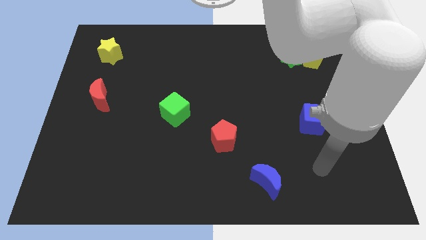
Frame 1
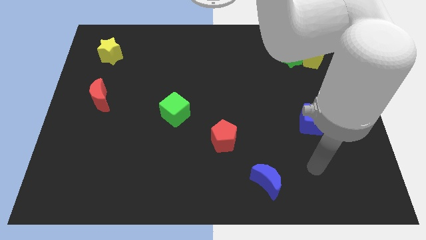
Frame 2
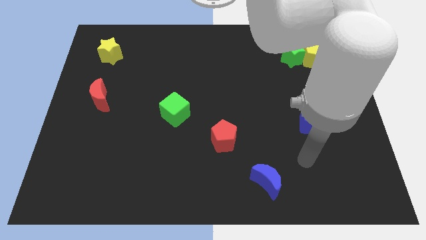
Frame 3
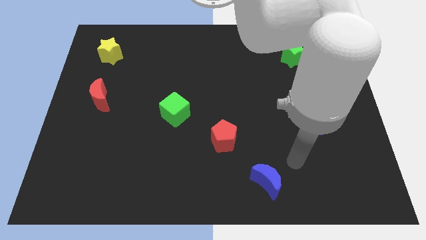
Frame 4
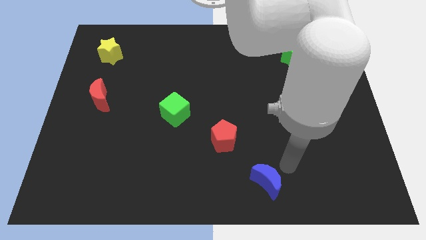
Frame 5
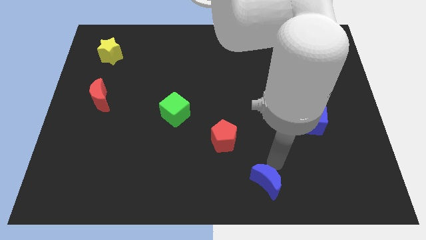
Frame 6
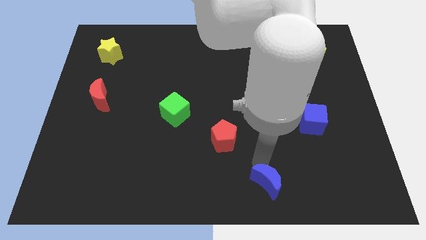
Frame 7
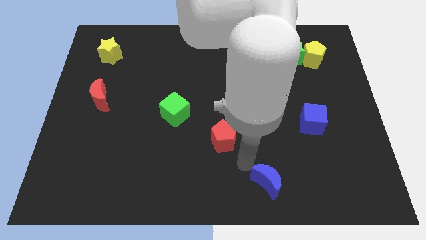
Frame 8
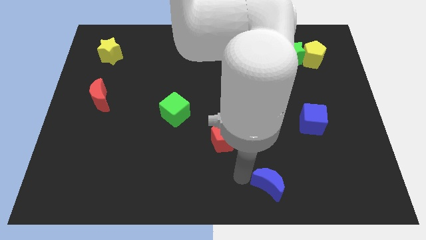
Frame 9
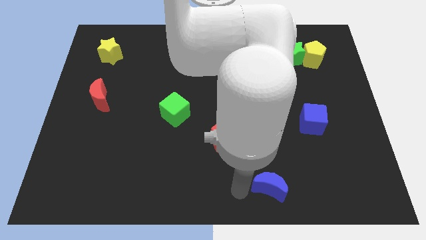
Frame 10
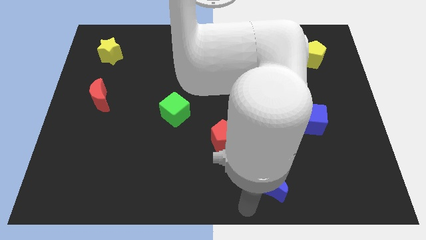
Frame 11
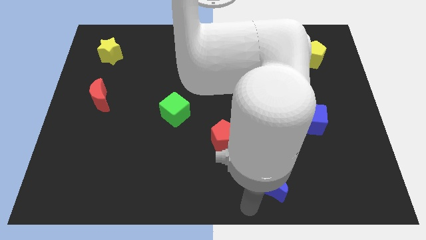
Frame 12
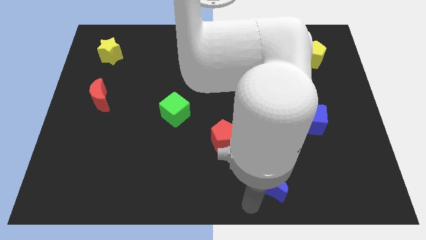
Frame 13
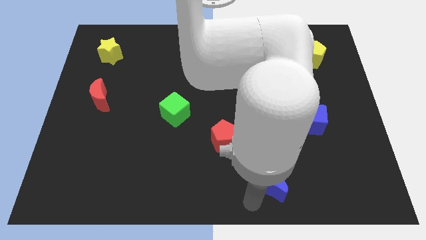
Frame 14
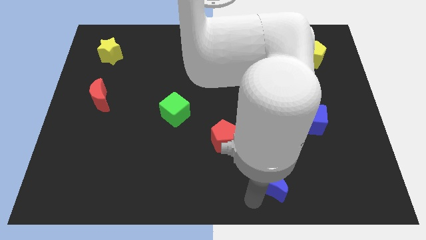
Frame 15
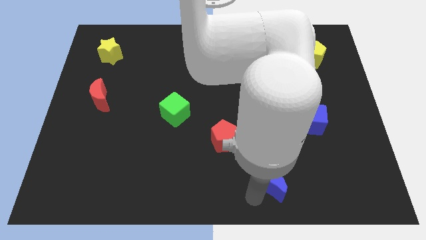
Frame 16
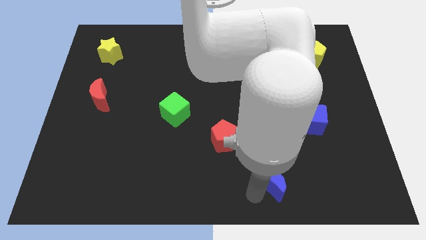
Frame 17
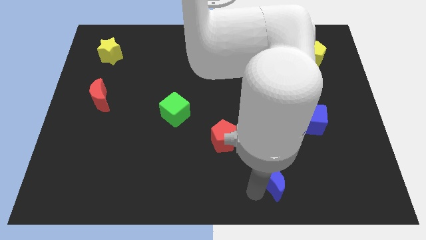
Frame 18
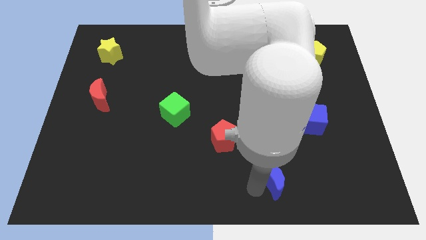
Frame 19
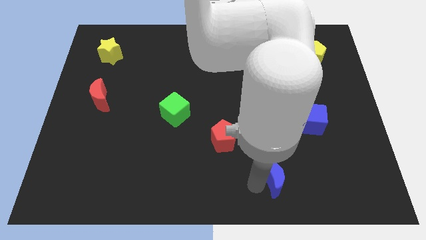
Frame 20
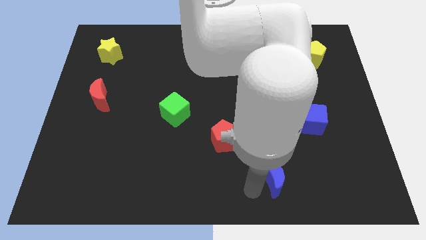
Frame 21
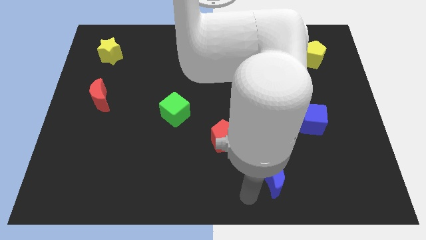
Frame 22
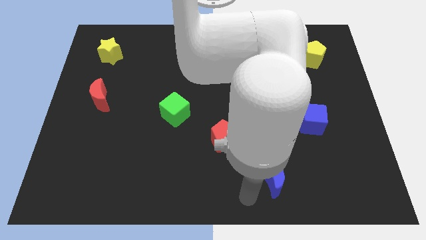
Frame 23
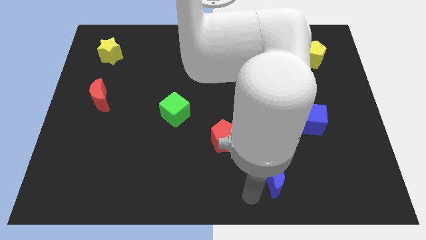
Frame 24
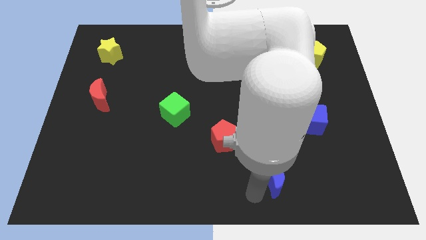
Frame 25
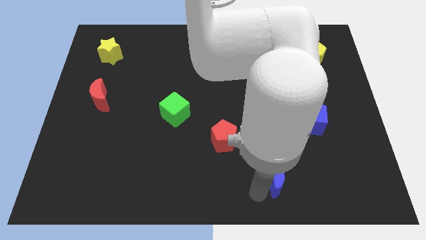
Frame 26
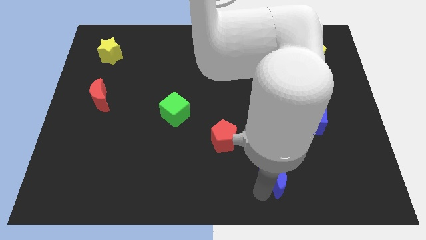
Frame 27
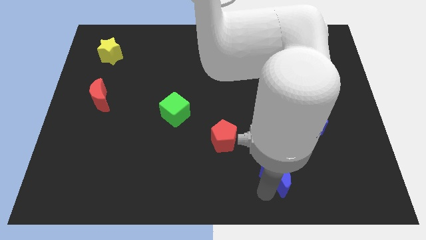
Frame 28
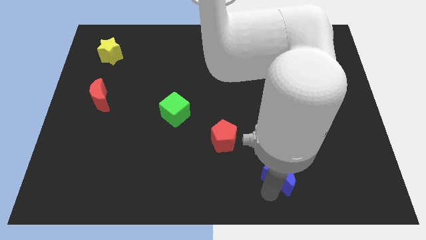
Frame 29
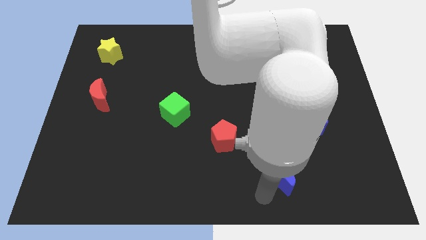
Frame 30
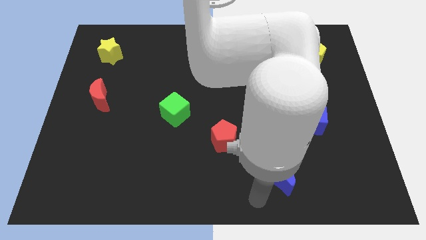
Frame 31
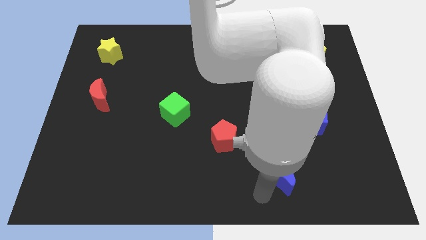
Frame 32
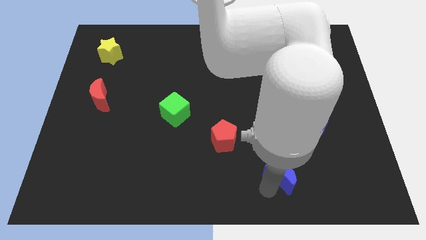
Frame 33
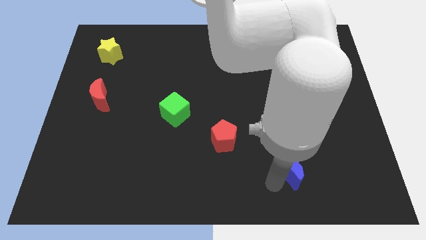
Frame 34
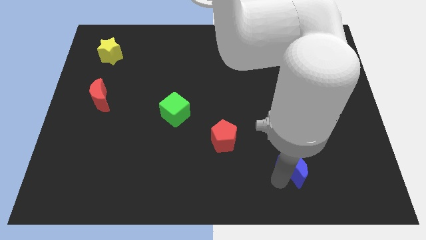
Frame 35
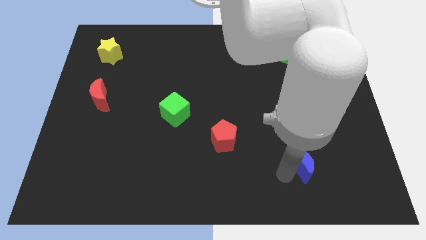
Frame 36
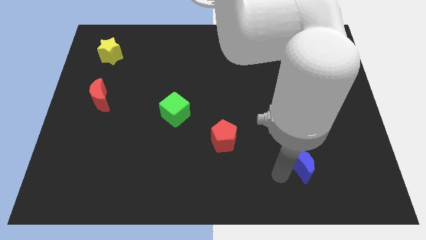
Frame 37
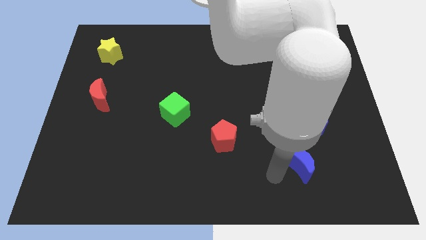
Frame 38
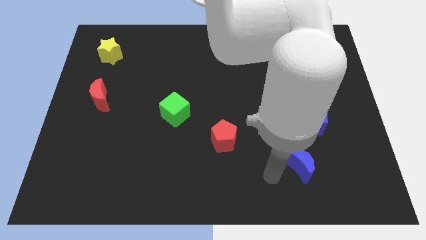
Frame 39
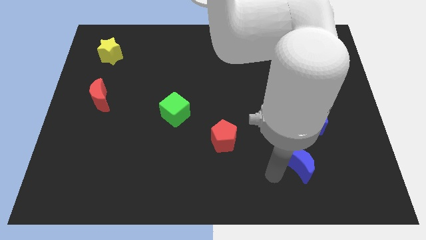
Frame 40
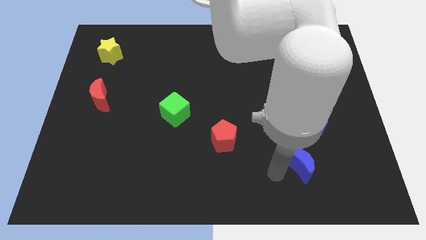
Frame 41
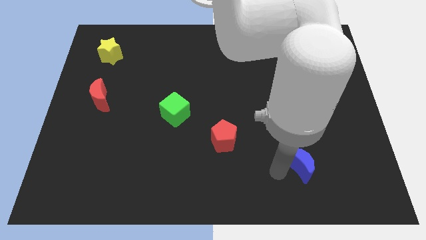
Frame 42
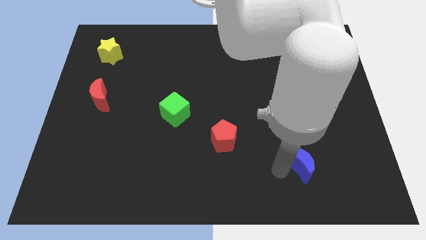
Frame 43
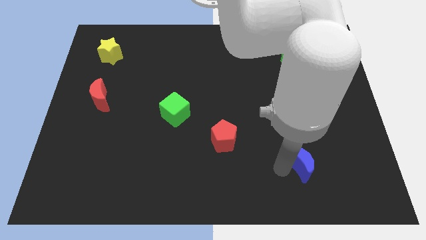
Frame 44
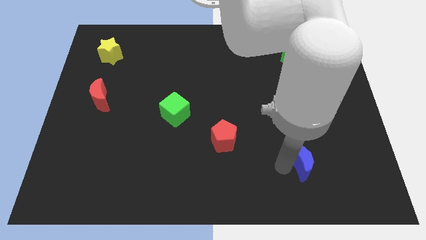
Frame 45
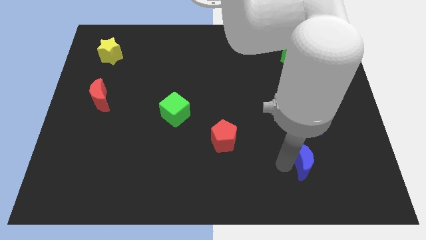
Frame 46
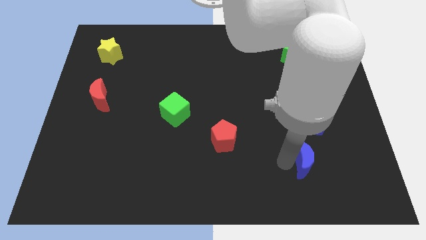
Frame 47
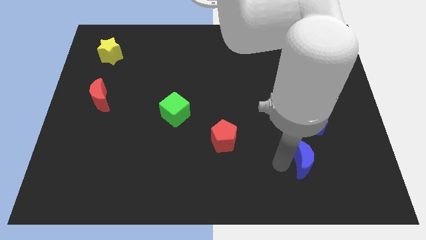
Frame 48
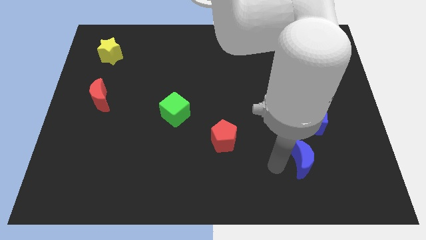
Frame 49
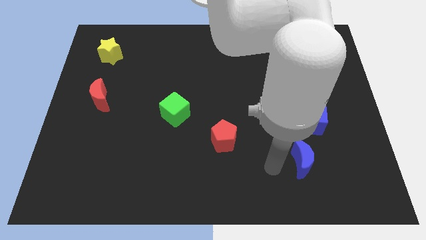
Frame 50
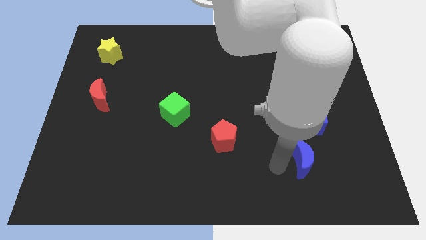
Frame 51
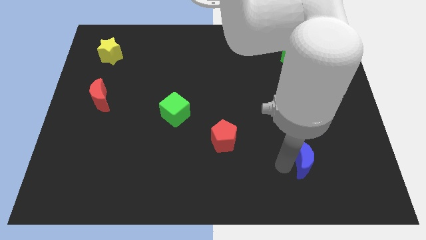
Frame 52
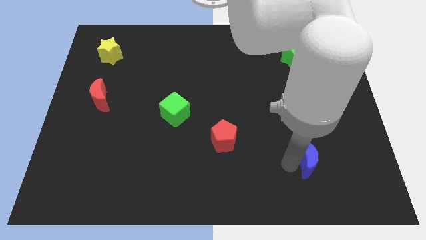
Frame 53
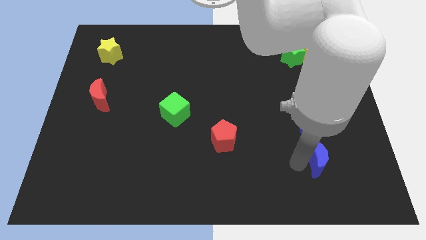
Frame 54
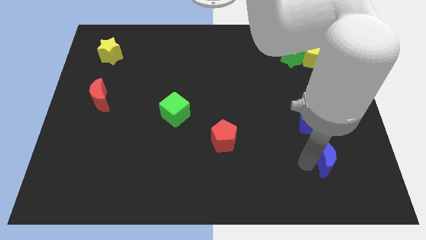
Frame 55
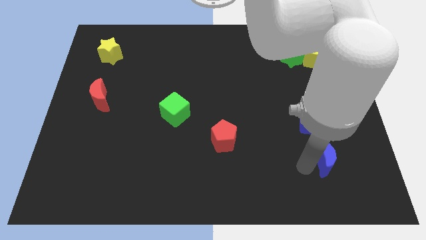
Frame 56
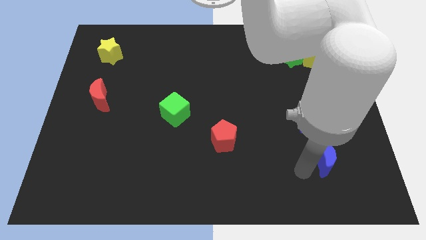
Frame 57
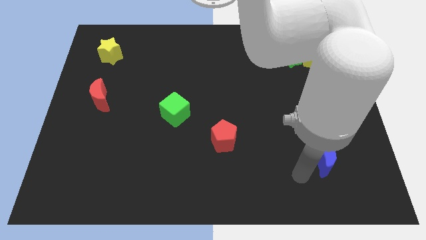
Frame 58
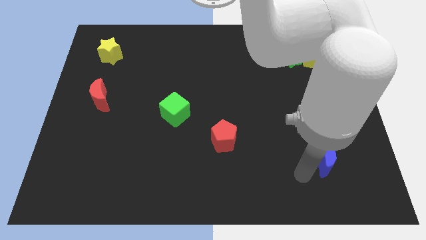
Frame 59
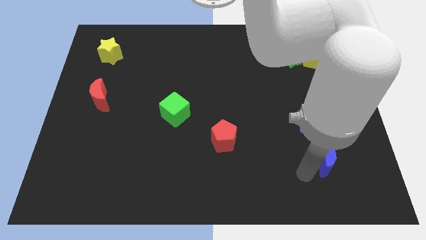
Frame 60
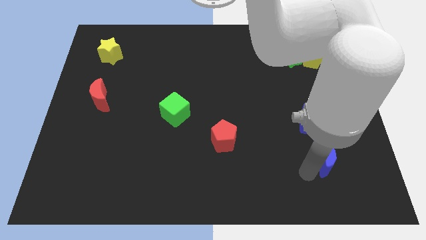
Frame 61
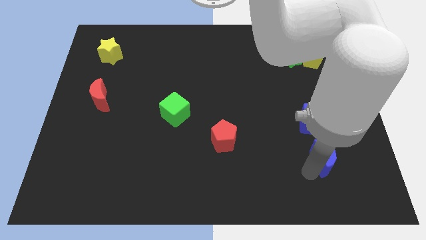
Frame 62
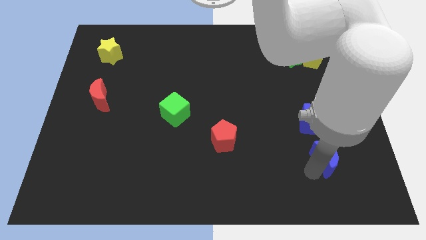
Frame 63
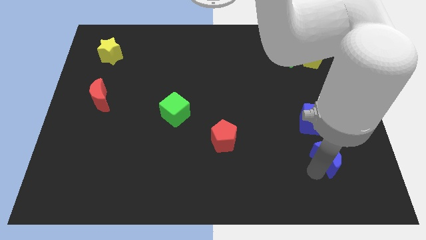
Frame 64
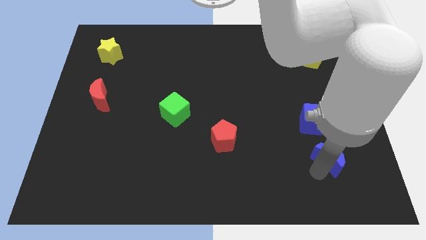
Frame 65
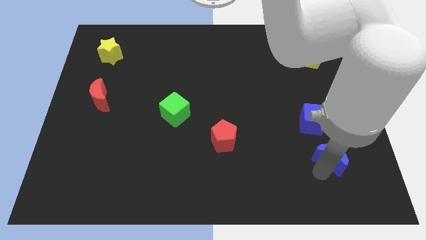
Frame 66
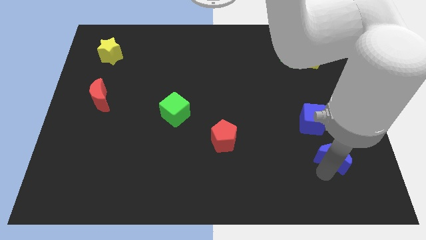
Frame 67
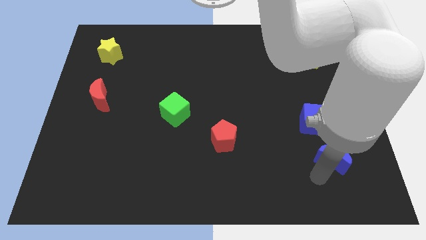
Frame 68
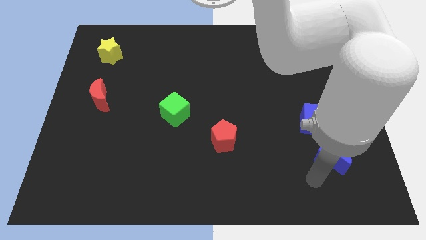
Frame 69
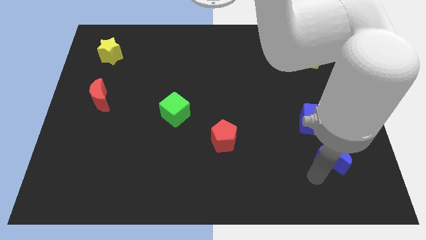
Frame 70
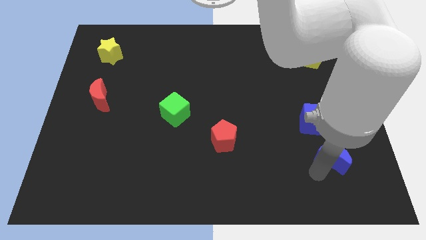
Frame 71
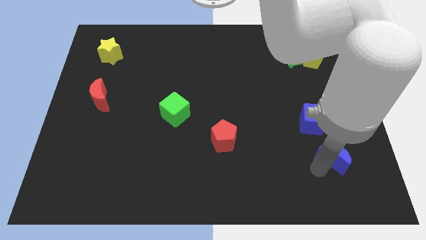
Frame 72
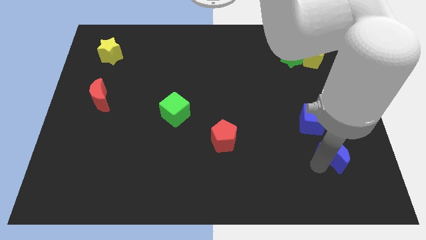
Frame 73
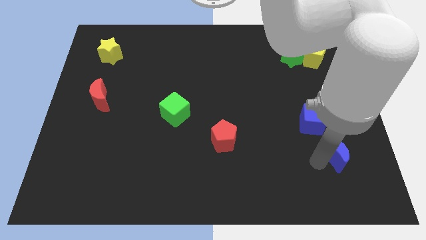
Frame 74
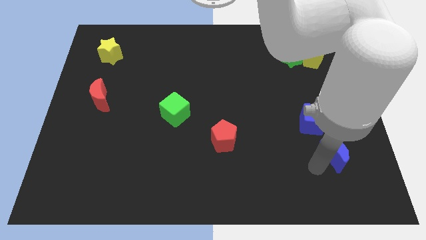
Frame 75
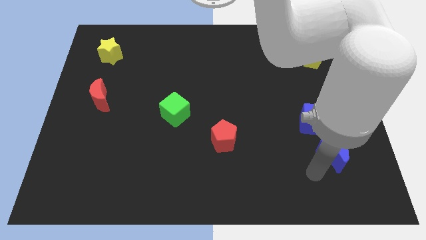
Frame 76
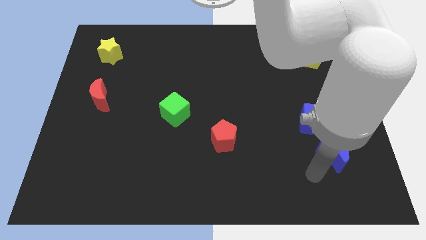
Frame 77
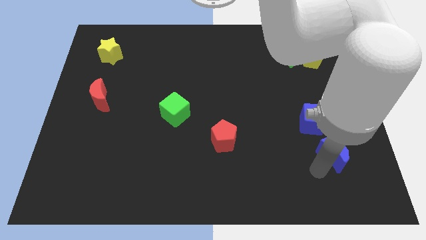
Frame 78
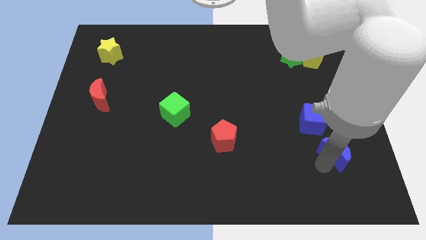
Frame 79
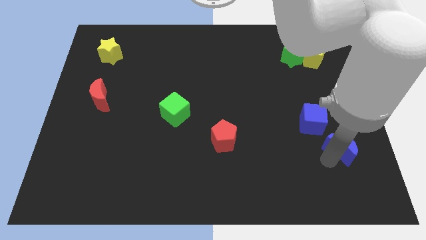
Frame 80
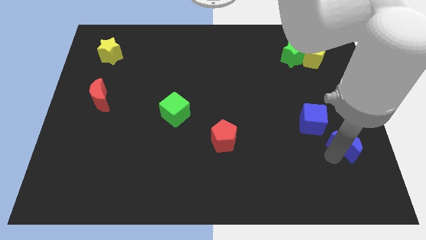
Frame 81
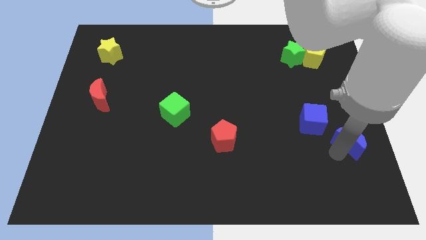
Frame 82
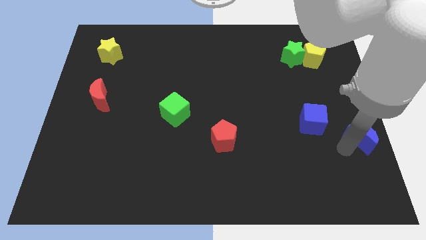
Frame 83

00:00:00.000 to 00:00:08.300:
move the blue moon to the right side
